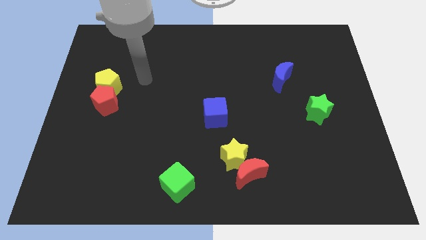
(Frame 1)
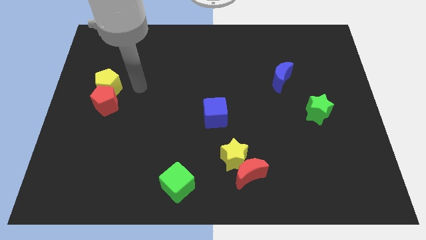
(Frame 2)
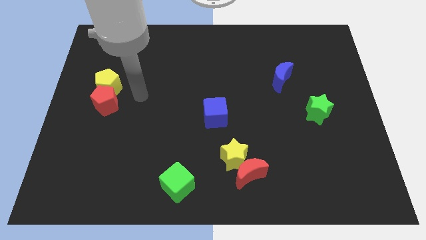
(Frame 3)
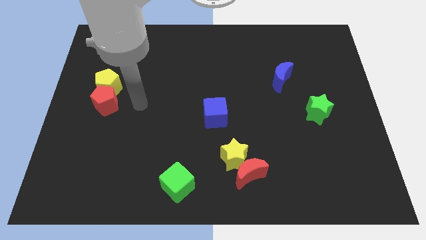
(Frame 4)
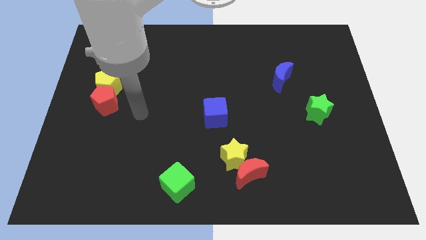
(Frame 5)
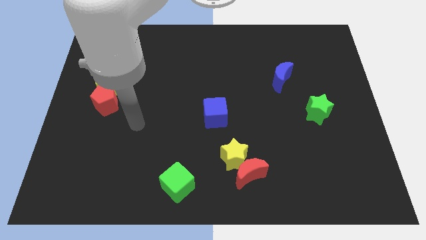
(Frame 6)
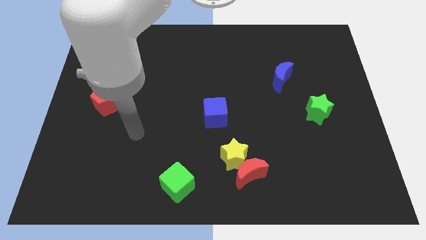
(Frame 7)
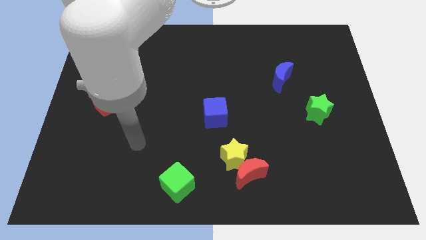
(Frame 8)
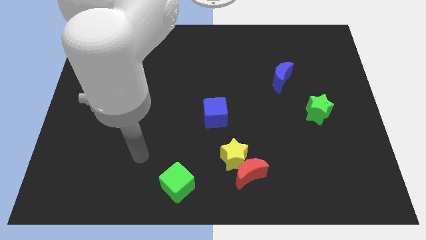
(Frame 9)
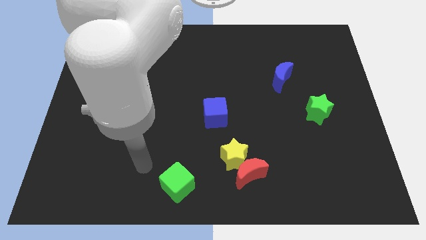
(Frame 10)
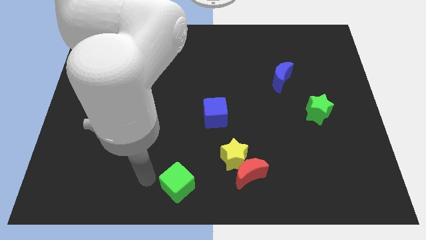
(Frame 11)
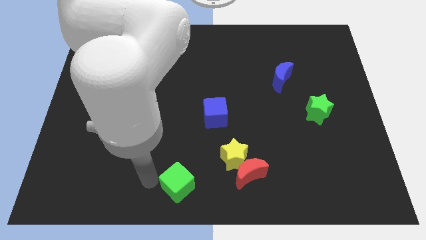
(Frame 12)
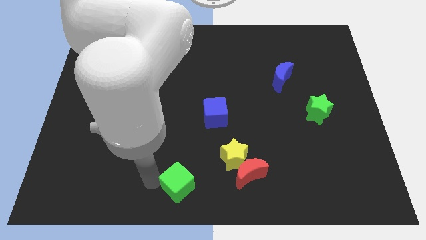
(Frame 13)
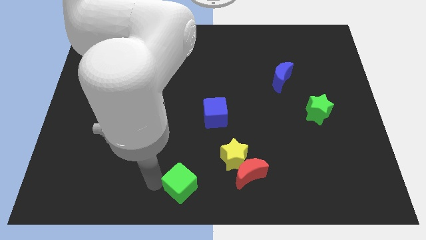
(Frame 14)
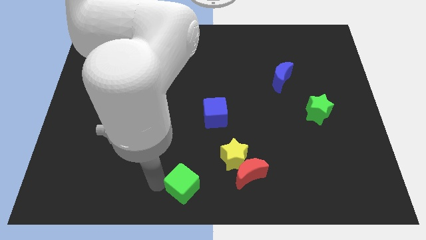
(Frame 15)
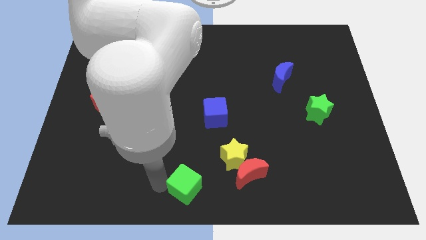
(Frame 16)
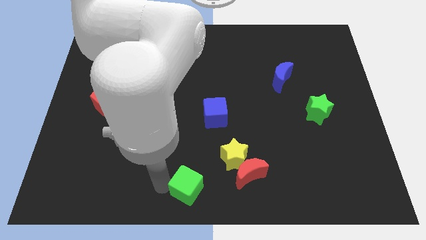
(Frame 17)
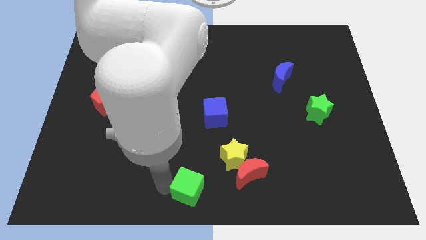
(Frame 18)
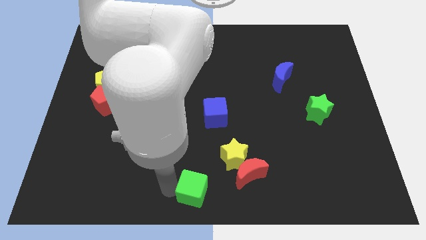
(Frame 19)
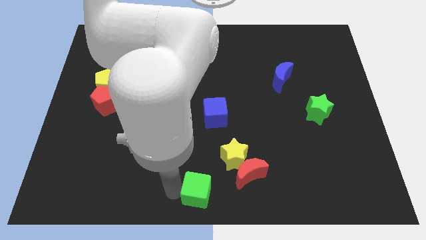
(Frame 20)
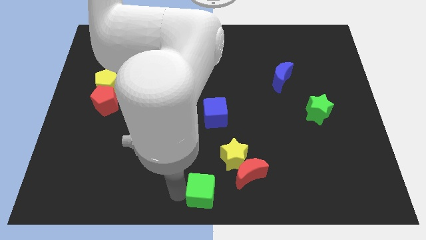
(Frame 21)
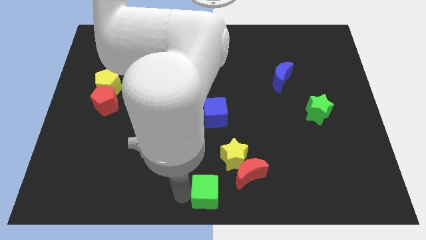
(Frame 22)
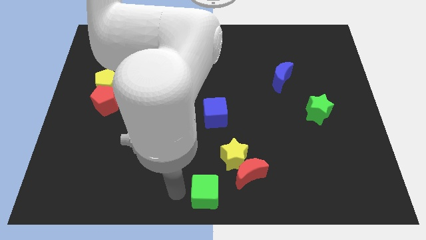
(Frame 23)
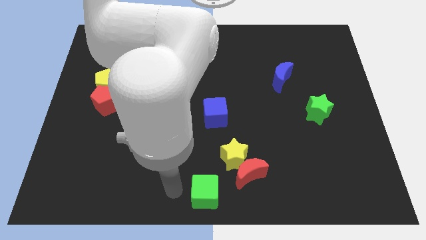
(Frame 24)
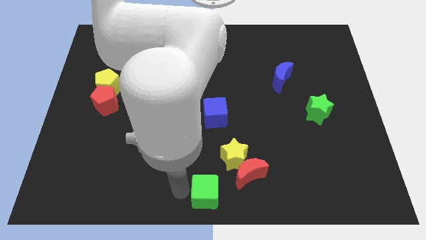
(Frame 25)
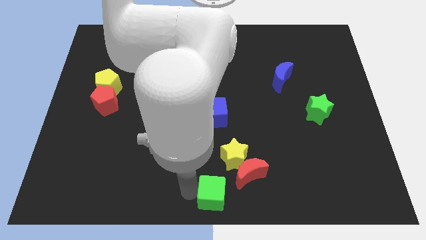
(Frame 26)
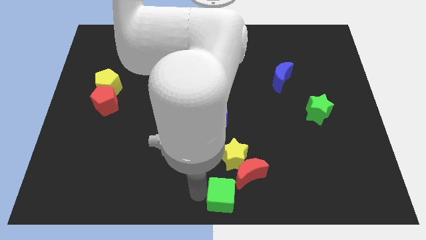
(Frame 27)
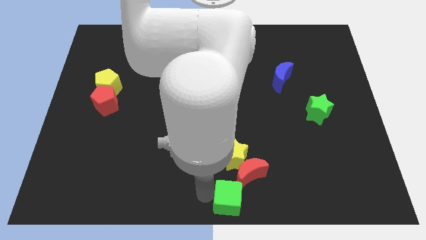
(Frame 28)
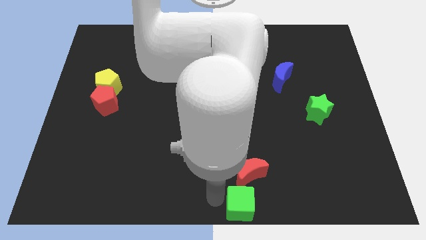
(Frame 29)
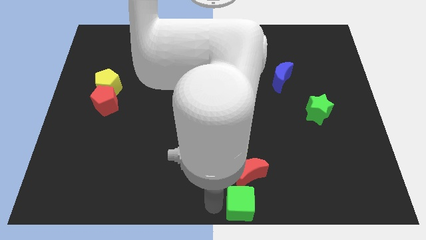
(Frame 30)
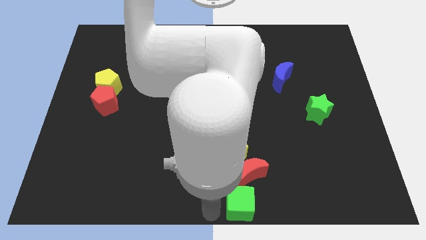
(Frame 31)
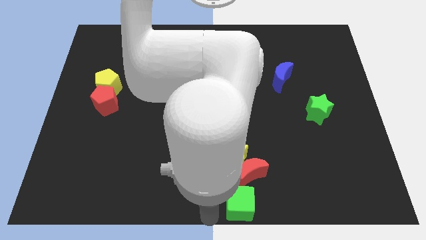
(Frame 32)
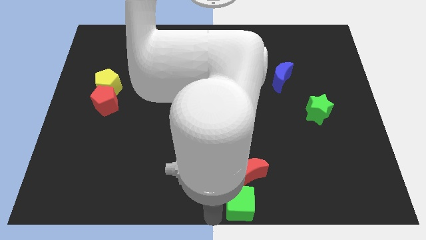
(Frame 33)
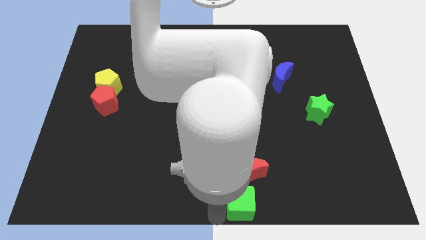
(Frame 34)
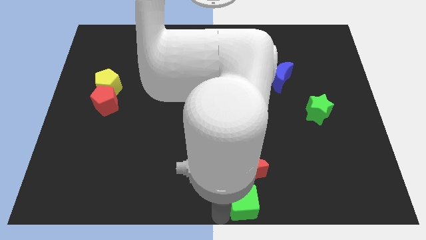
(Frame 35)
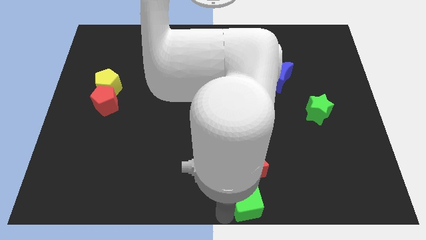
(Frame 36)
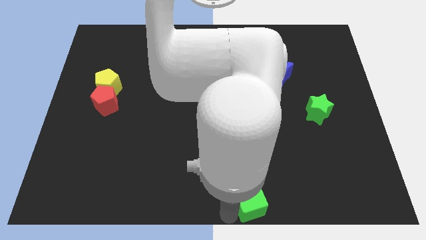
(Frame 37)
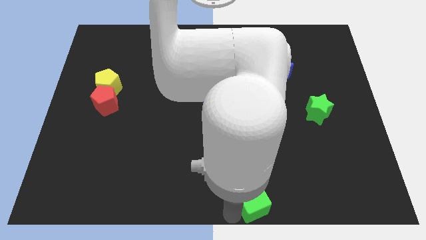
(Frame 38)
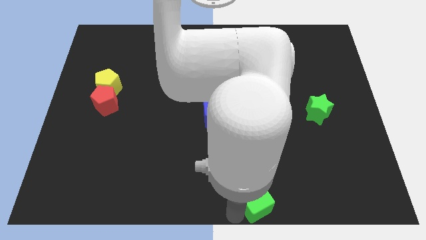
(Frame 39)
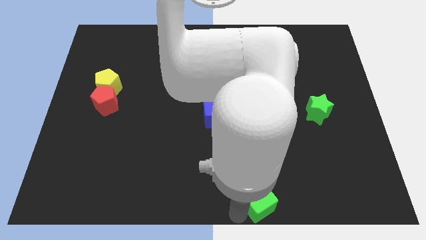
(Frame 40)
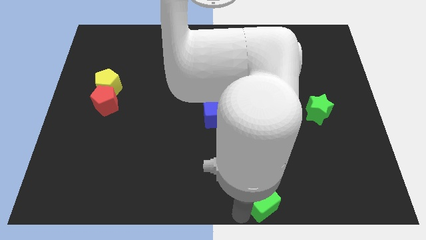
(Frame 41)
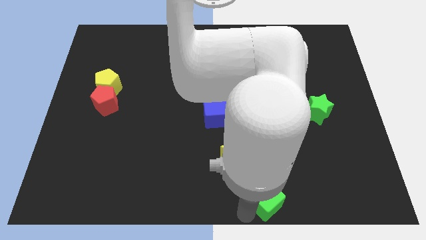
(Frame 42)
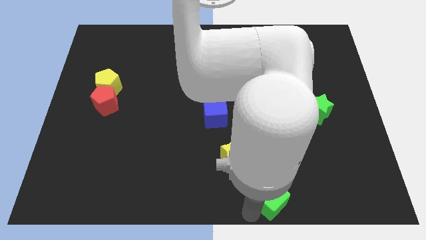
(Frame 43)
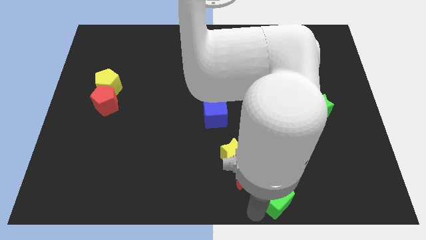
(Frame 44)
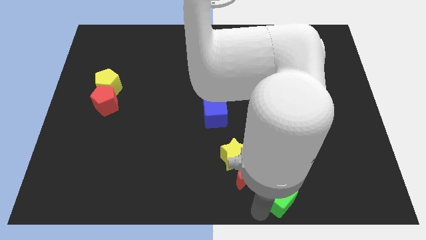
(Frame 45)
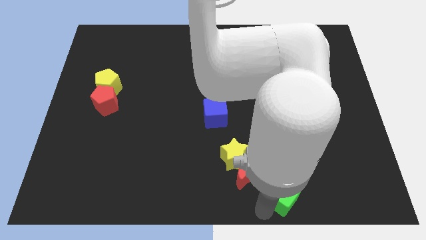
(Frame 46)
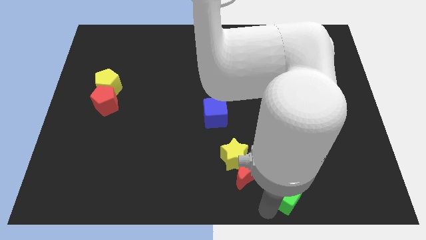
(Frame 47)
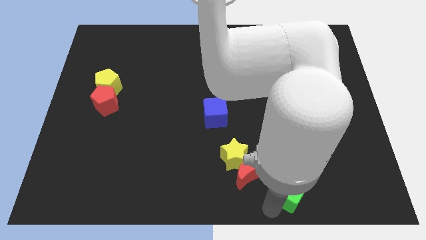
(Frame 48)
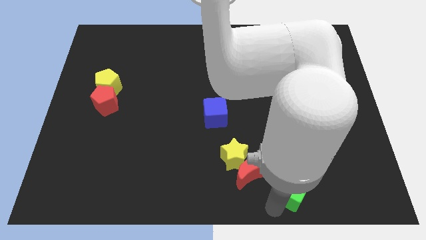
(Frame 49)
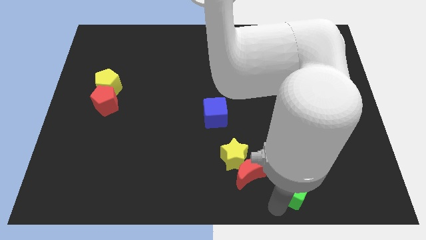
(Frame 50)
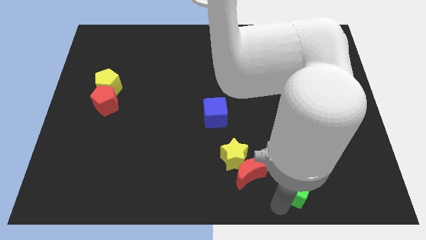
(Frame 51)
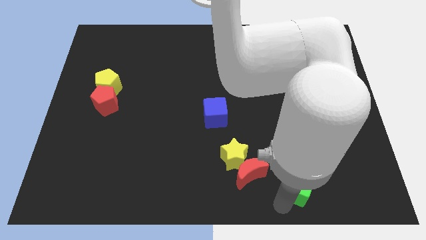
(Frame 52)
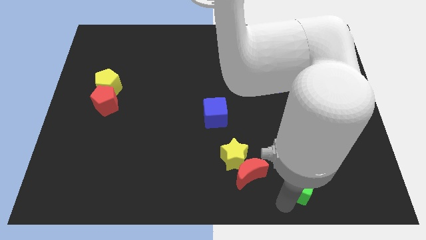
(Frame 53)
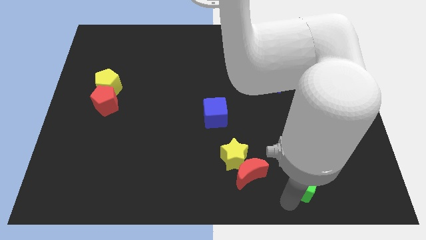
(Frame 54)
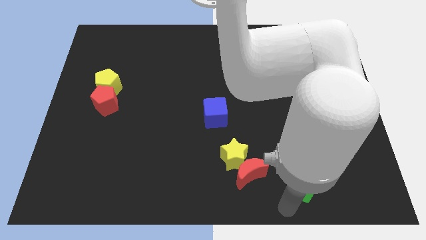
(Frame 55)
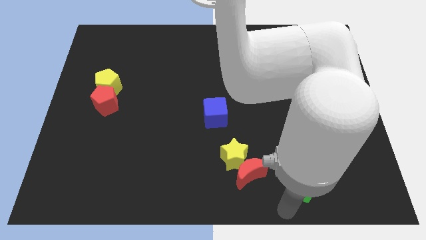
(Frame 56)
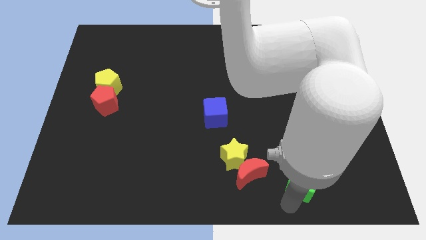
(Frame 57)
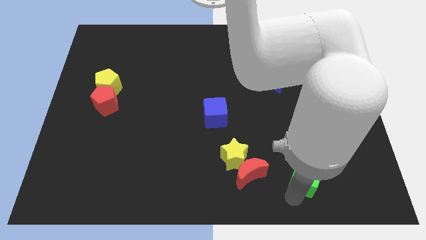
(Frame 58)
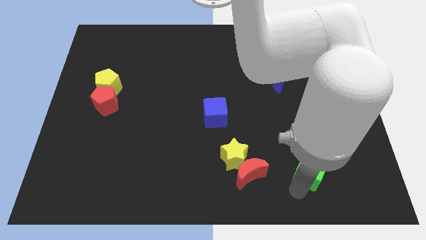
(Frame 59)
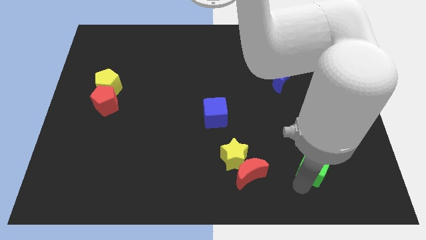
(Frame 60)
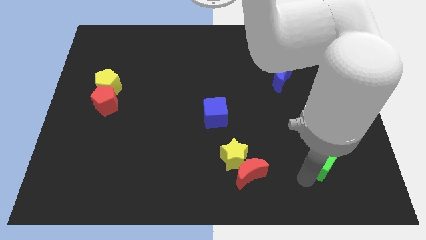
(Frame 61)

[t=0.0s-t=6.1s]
move the green cube to the bottom side of the green star

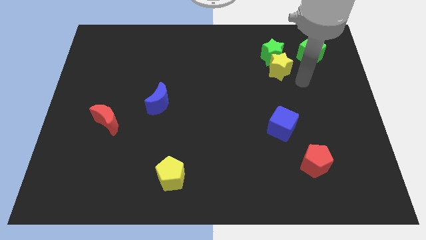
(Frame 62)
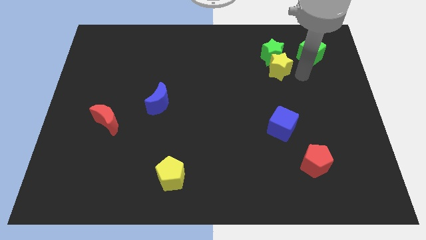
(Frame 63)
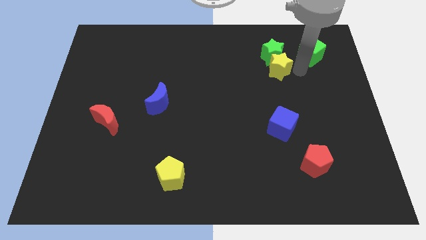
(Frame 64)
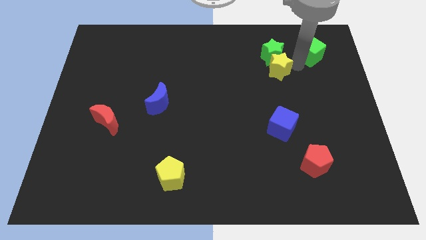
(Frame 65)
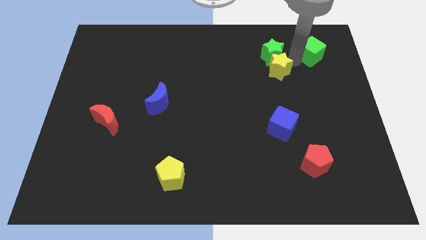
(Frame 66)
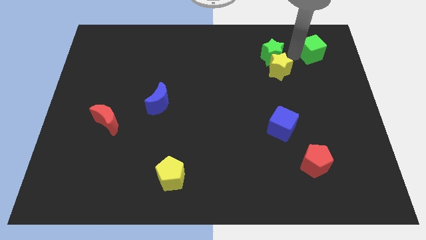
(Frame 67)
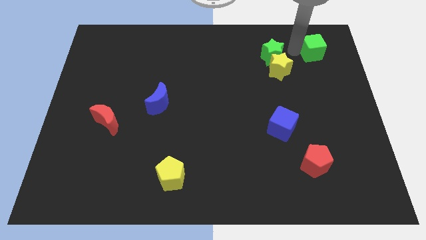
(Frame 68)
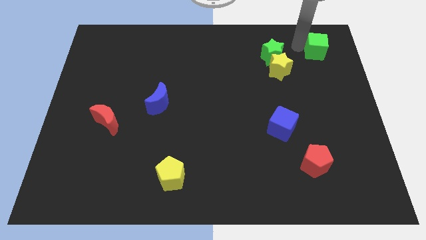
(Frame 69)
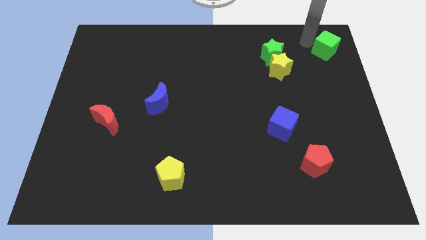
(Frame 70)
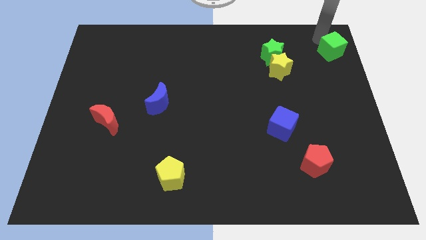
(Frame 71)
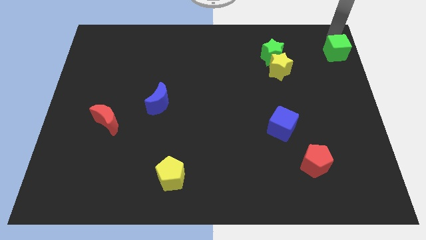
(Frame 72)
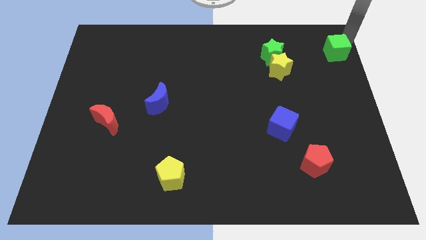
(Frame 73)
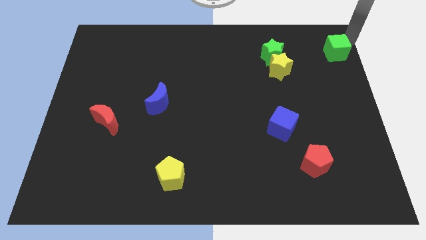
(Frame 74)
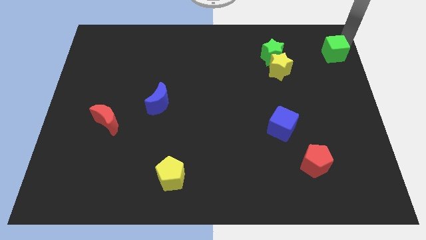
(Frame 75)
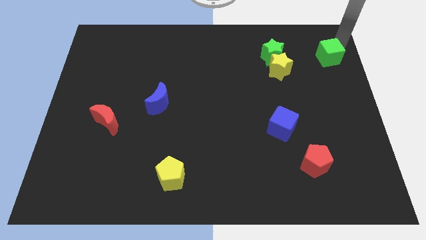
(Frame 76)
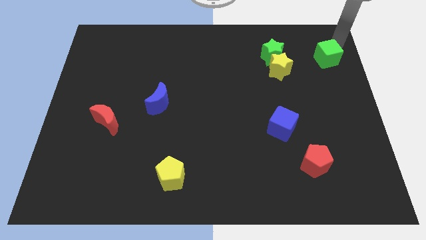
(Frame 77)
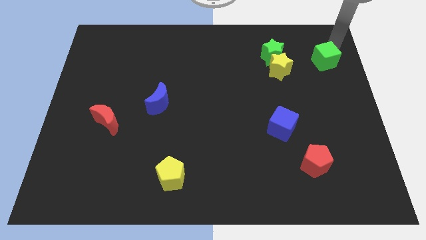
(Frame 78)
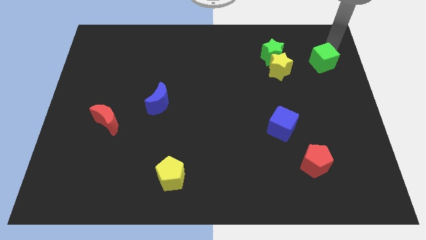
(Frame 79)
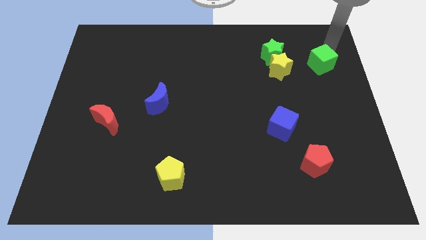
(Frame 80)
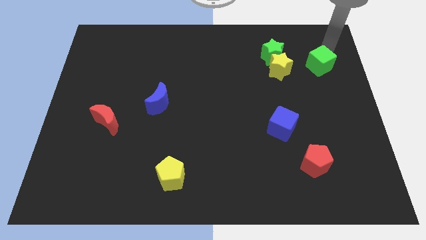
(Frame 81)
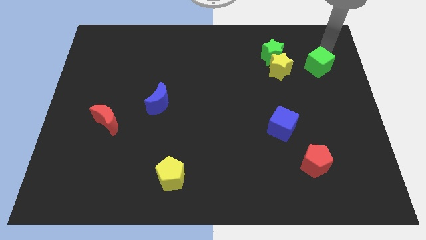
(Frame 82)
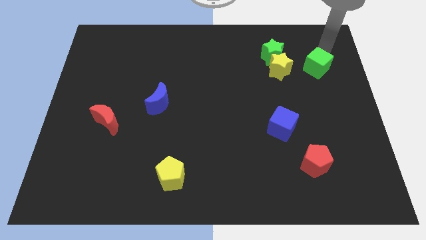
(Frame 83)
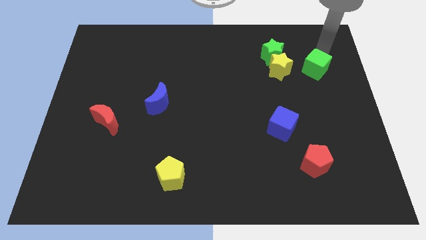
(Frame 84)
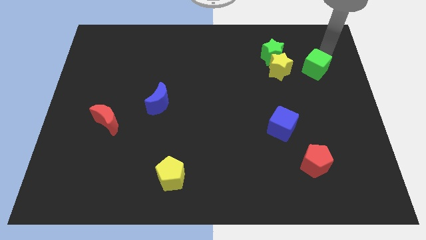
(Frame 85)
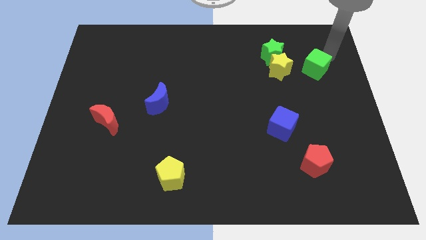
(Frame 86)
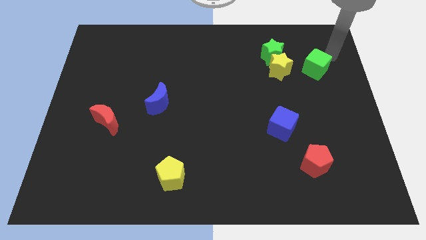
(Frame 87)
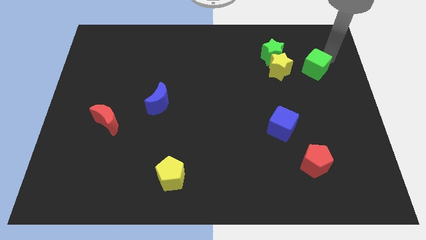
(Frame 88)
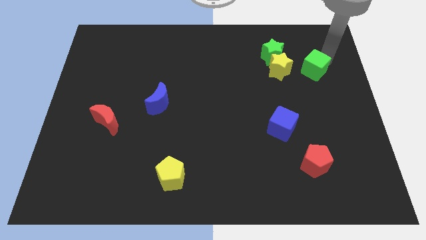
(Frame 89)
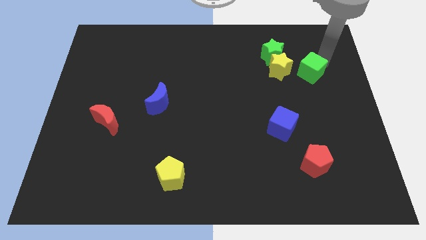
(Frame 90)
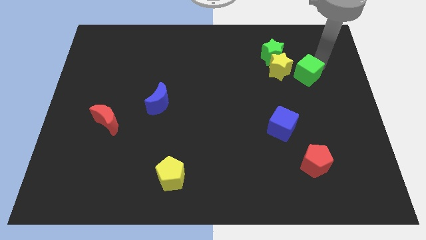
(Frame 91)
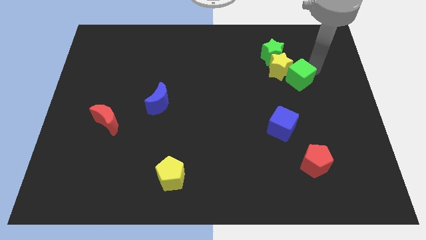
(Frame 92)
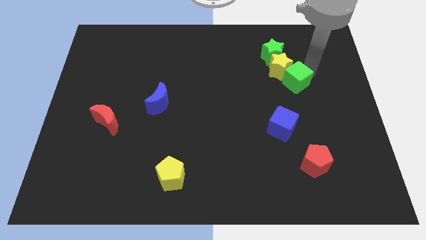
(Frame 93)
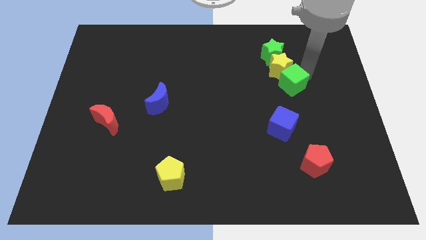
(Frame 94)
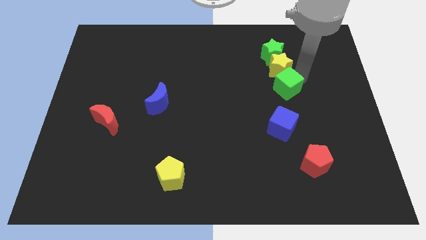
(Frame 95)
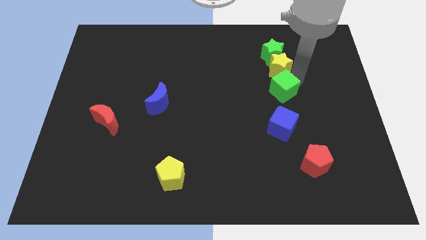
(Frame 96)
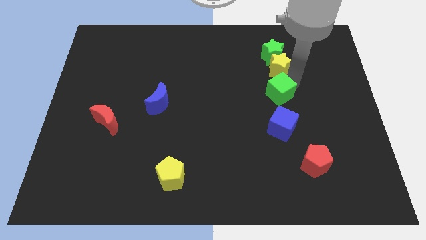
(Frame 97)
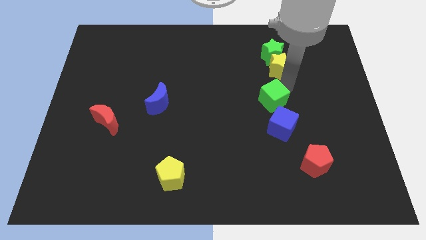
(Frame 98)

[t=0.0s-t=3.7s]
put the green cube diagonally up and to the left of the blue cube
